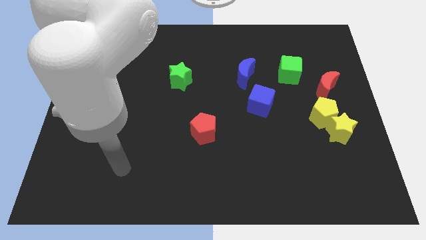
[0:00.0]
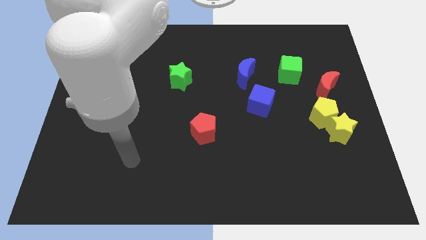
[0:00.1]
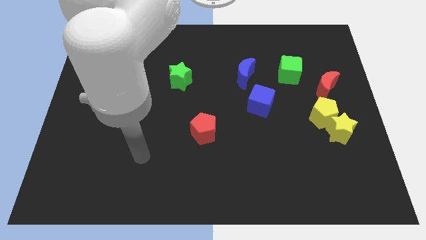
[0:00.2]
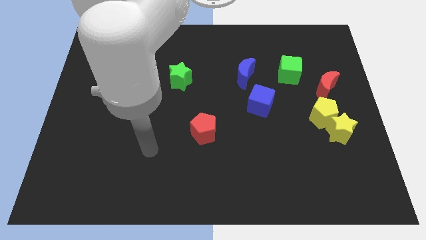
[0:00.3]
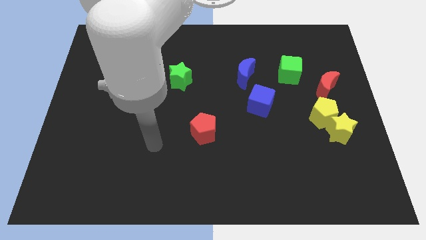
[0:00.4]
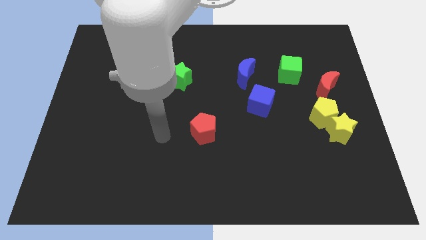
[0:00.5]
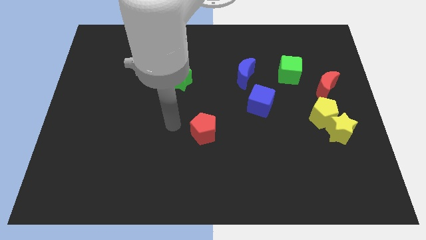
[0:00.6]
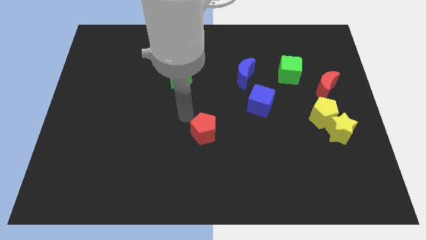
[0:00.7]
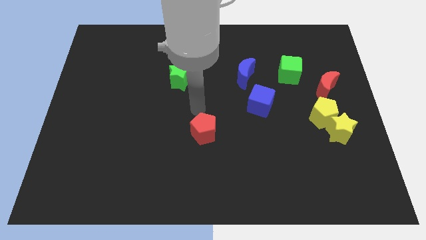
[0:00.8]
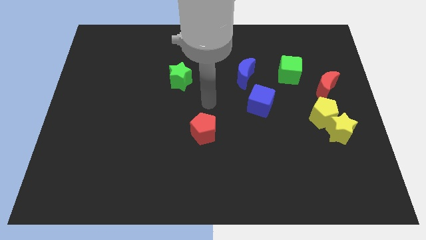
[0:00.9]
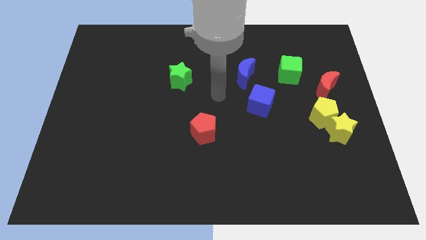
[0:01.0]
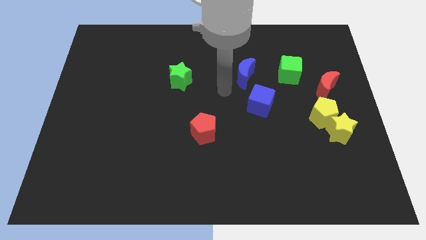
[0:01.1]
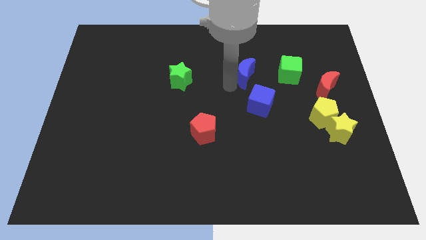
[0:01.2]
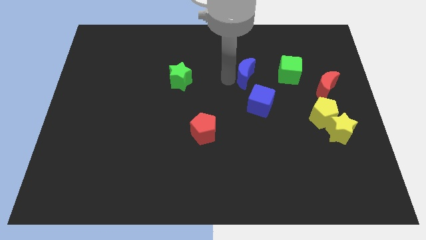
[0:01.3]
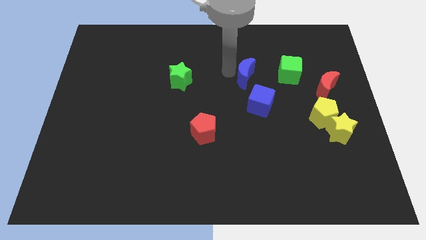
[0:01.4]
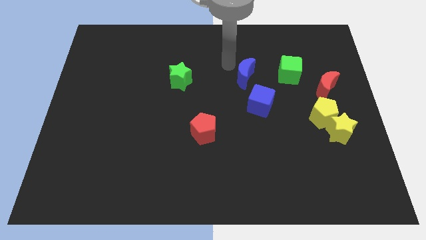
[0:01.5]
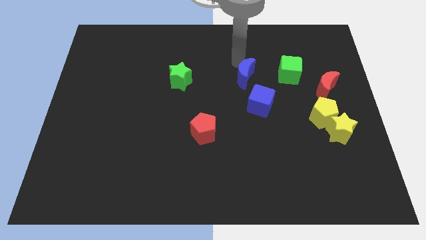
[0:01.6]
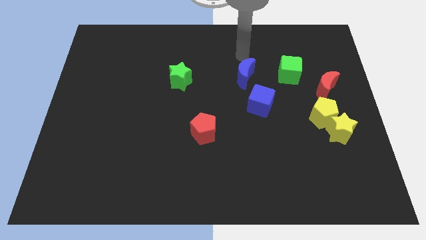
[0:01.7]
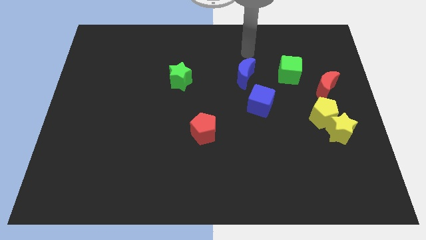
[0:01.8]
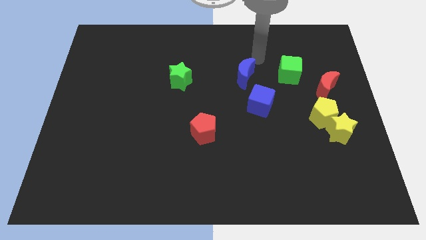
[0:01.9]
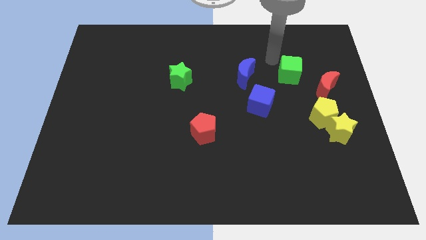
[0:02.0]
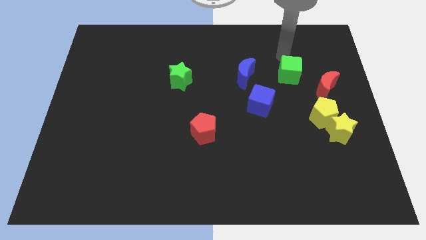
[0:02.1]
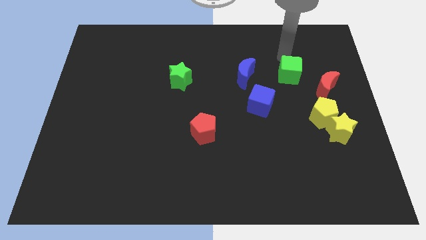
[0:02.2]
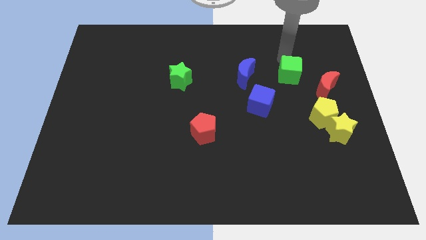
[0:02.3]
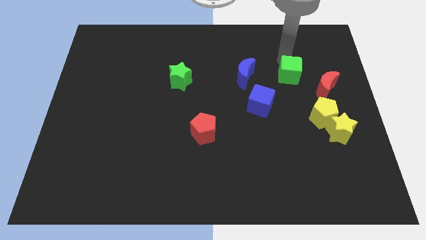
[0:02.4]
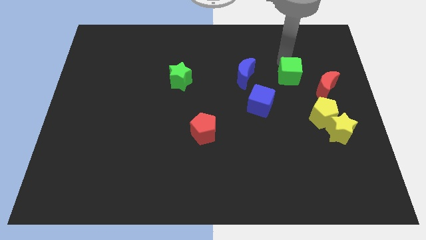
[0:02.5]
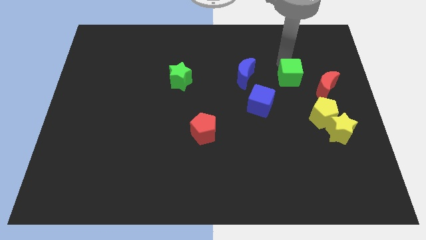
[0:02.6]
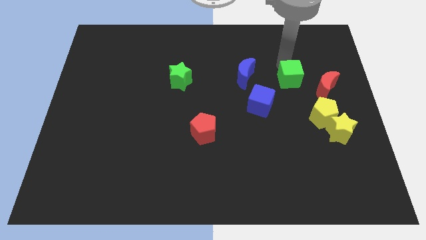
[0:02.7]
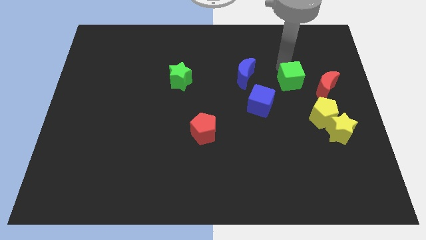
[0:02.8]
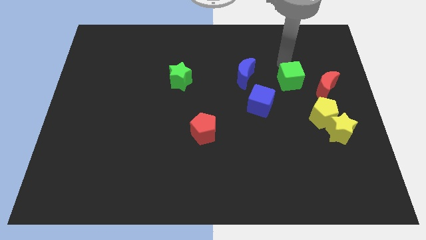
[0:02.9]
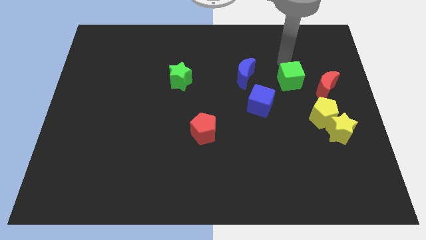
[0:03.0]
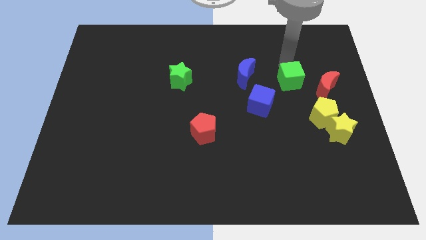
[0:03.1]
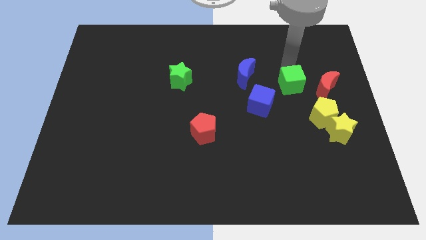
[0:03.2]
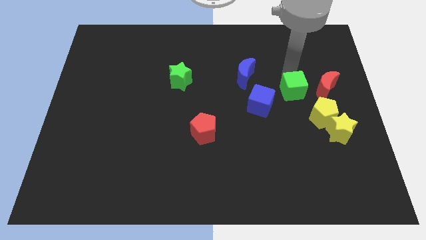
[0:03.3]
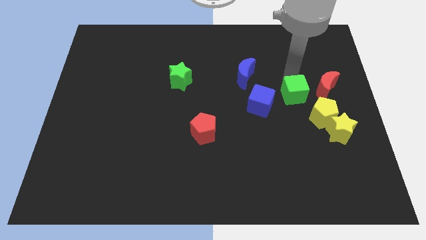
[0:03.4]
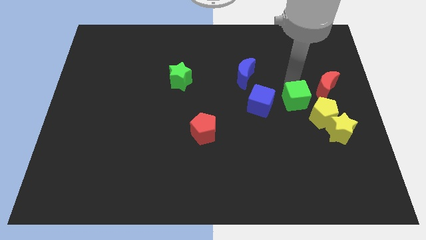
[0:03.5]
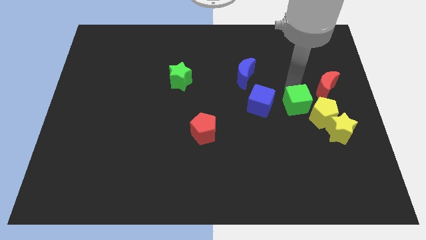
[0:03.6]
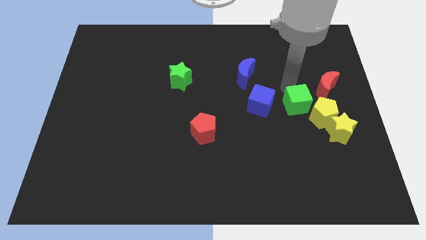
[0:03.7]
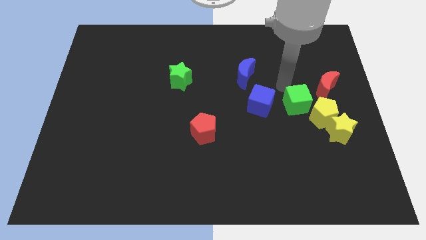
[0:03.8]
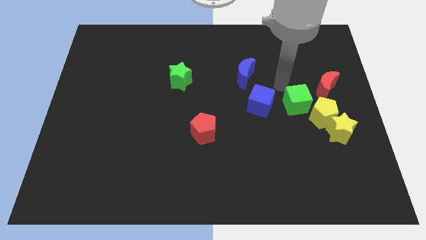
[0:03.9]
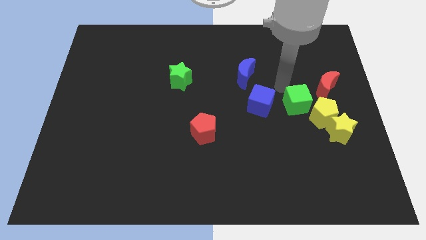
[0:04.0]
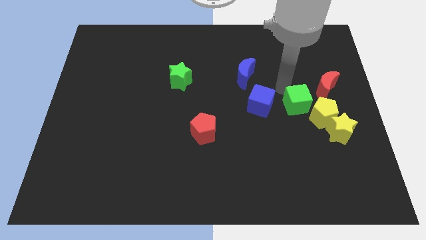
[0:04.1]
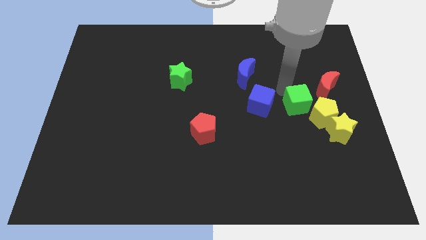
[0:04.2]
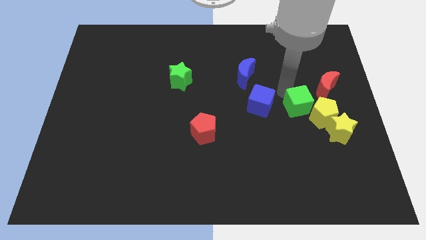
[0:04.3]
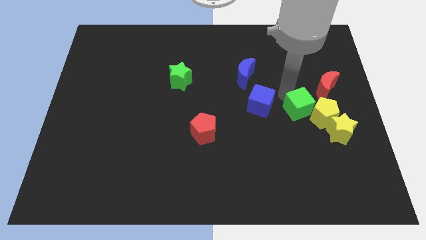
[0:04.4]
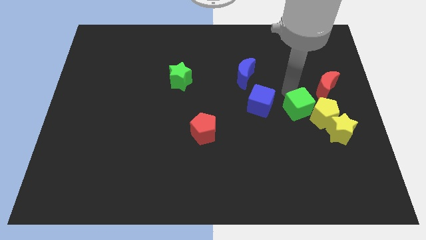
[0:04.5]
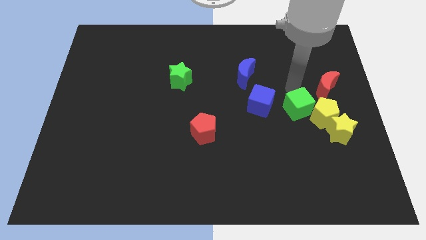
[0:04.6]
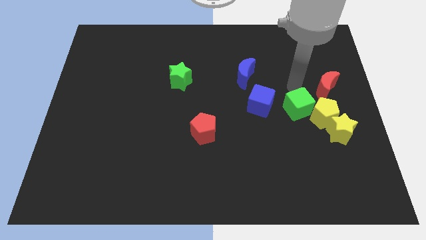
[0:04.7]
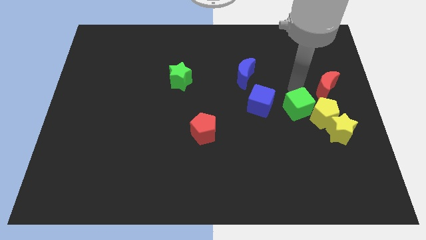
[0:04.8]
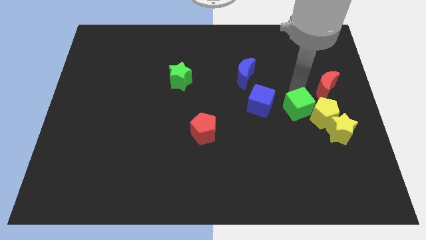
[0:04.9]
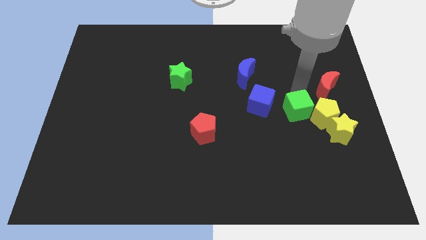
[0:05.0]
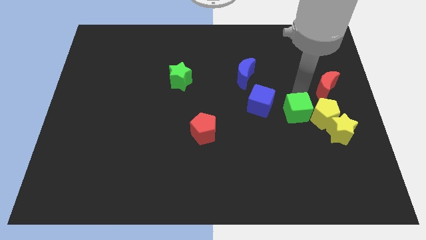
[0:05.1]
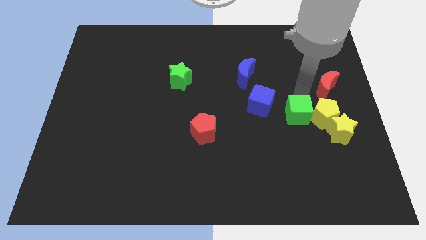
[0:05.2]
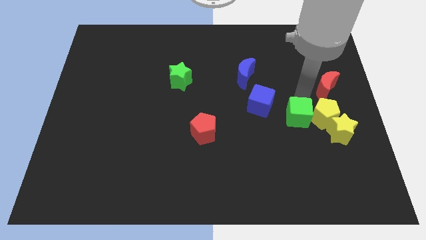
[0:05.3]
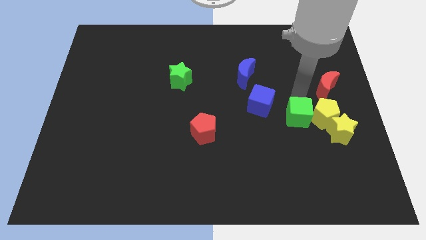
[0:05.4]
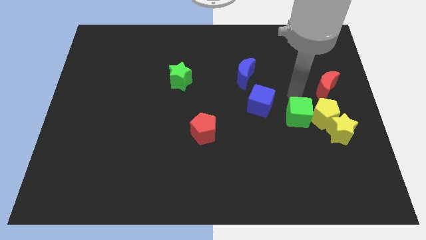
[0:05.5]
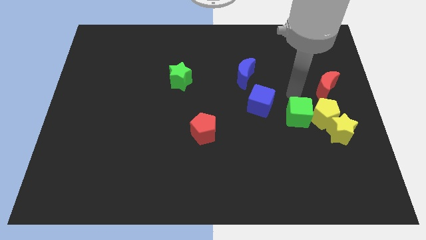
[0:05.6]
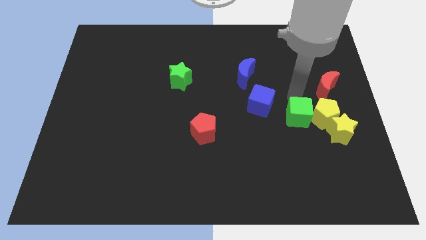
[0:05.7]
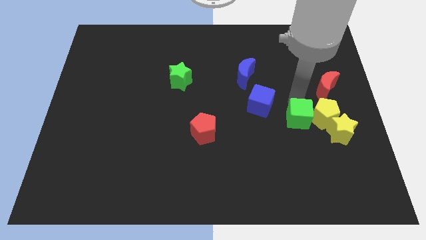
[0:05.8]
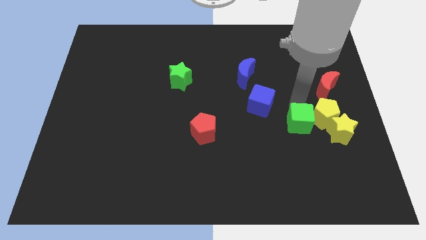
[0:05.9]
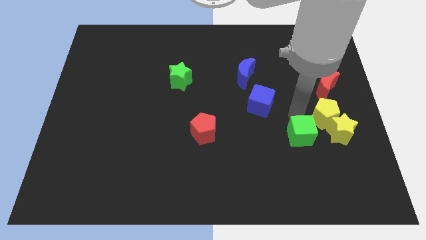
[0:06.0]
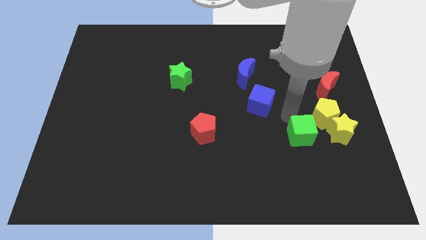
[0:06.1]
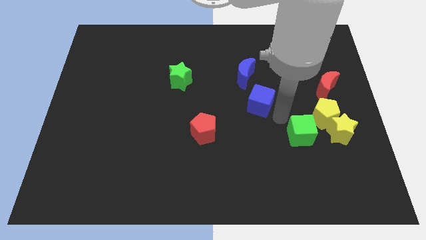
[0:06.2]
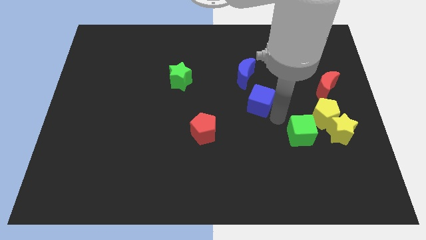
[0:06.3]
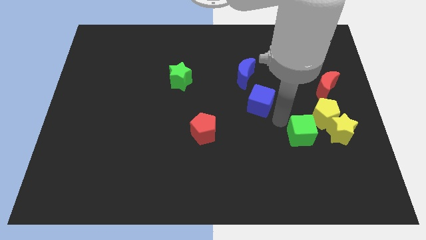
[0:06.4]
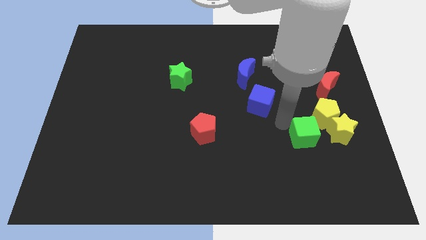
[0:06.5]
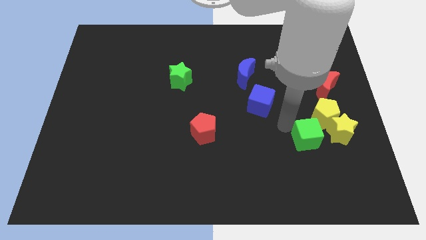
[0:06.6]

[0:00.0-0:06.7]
move the green cube below the yellow pentagon

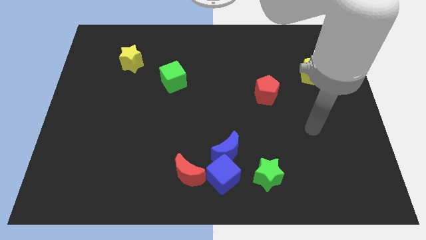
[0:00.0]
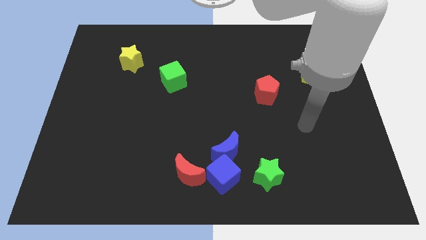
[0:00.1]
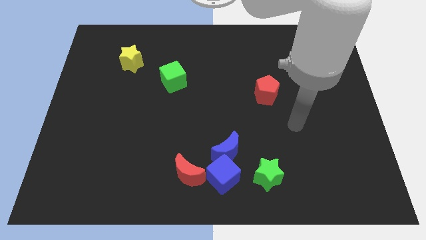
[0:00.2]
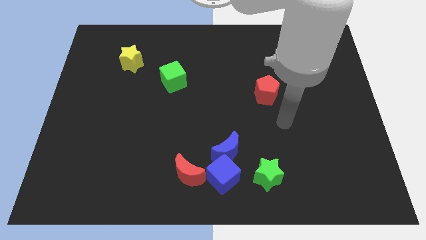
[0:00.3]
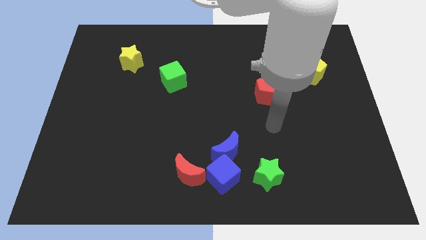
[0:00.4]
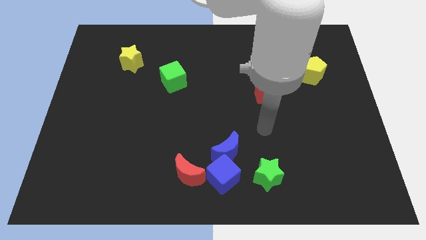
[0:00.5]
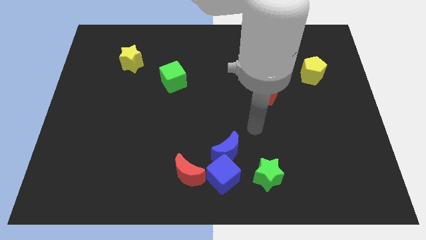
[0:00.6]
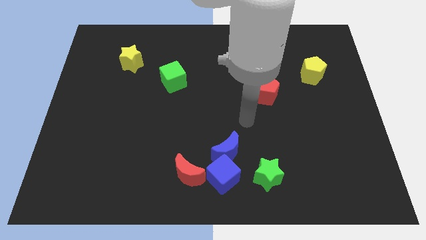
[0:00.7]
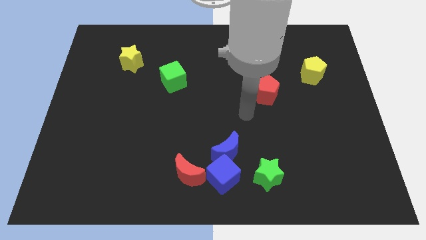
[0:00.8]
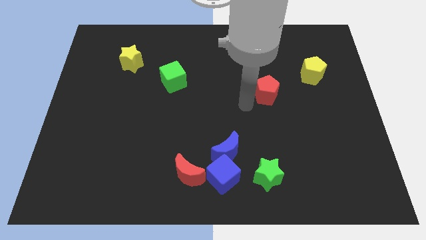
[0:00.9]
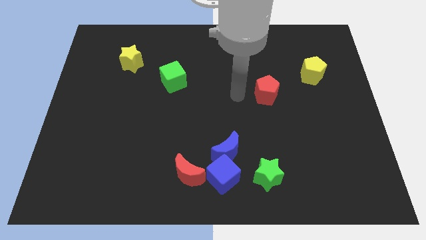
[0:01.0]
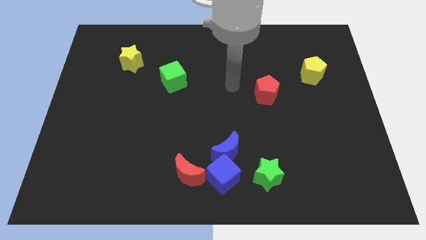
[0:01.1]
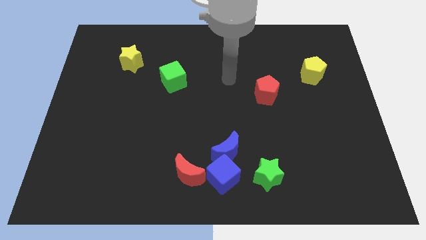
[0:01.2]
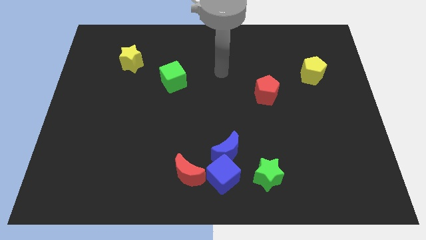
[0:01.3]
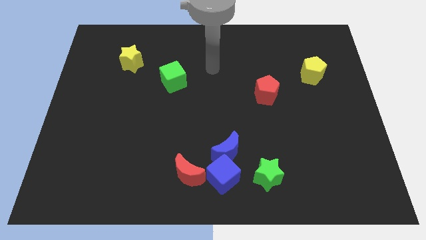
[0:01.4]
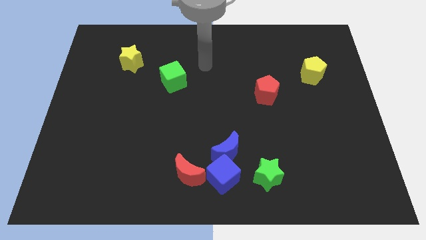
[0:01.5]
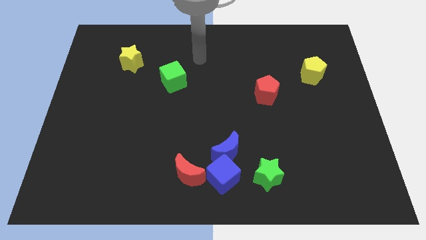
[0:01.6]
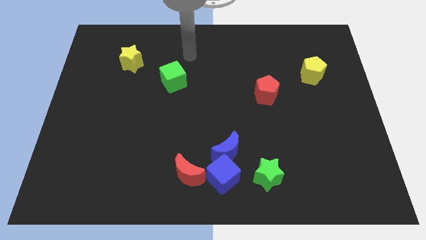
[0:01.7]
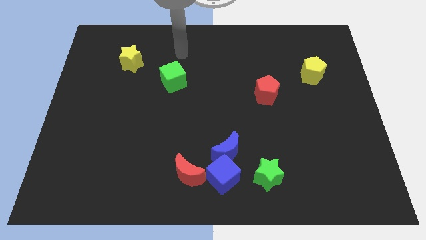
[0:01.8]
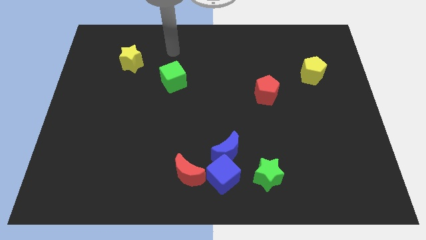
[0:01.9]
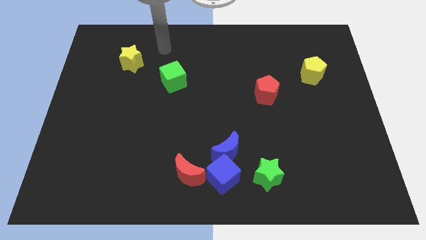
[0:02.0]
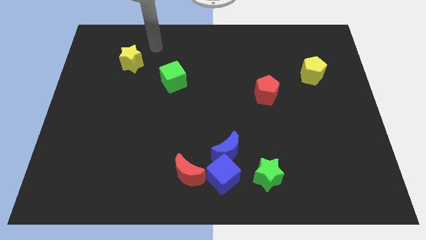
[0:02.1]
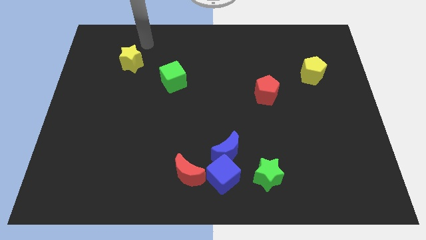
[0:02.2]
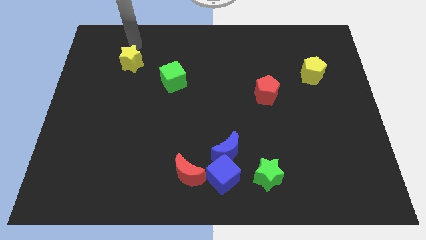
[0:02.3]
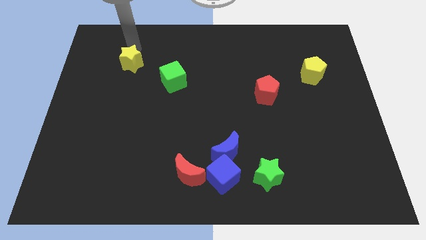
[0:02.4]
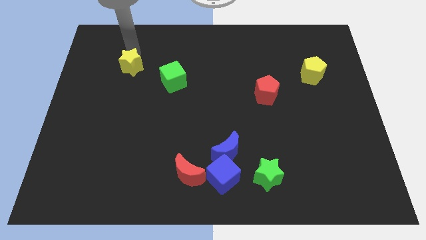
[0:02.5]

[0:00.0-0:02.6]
put the yellow star to the left side of the green cube
